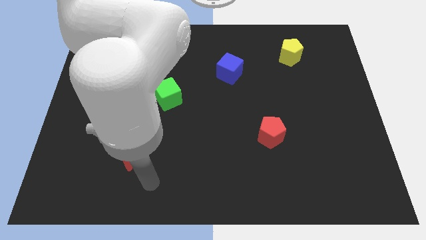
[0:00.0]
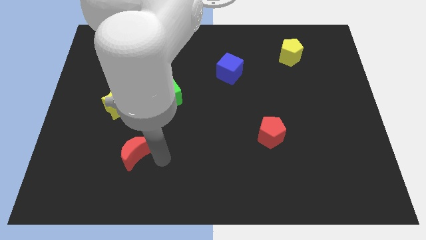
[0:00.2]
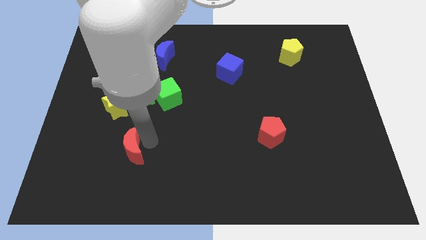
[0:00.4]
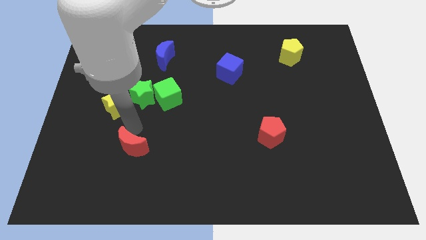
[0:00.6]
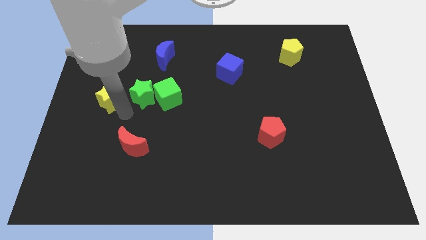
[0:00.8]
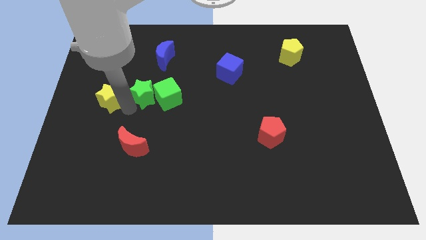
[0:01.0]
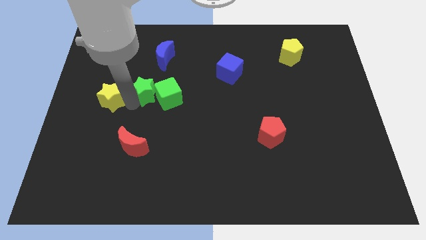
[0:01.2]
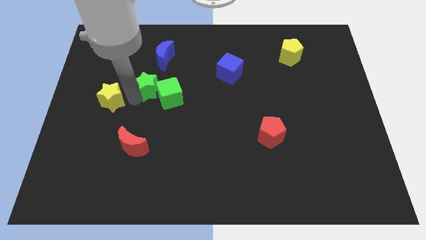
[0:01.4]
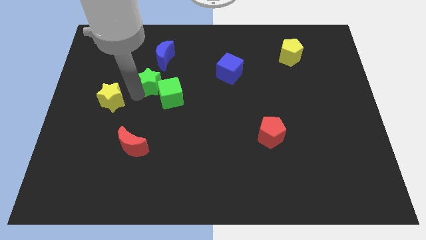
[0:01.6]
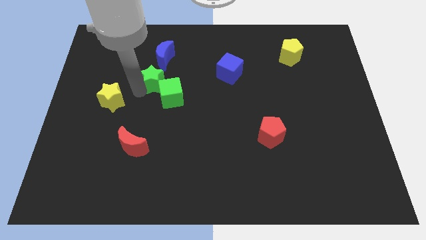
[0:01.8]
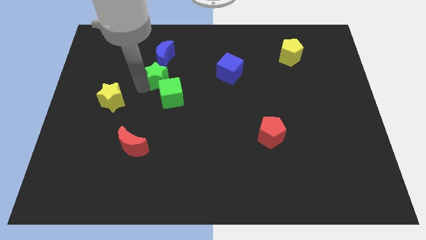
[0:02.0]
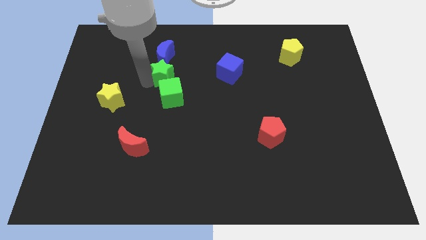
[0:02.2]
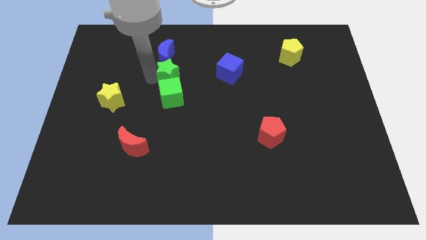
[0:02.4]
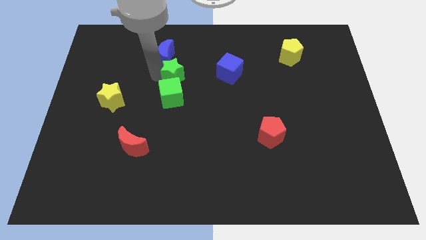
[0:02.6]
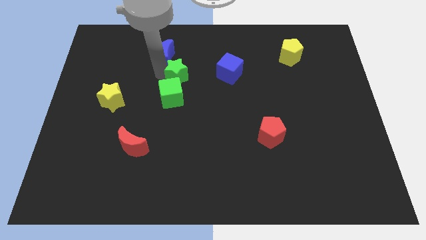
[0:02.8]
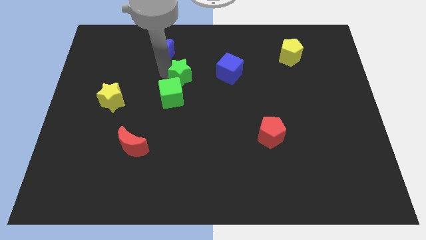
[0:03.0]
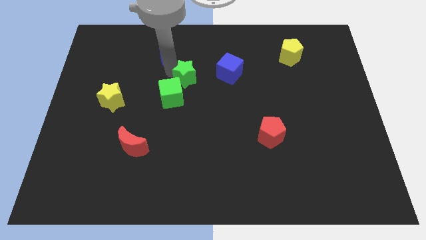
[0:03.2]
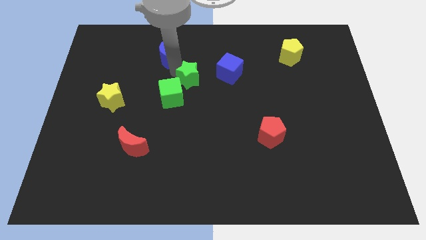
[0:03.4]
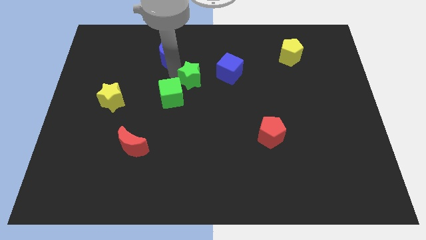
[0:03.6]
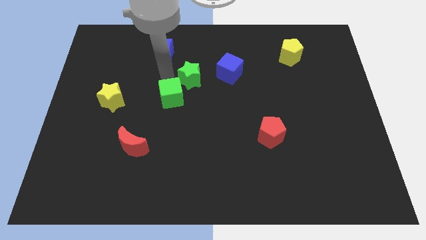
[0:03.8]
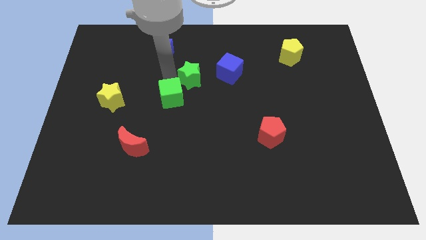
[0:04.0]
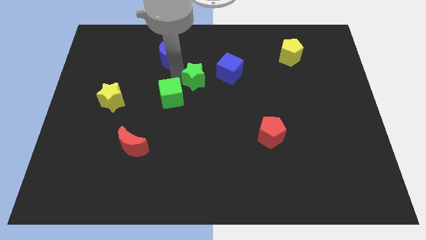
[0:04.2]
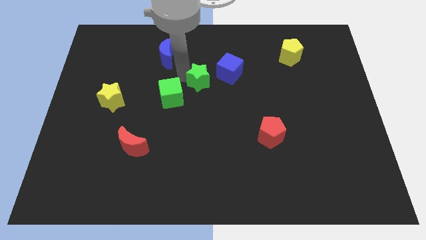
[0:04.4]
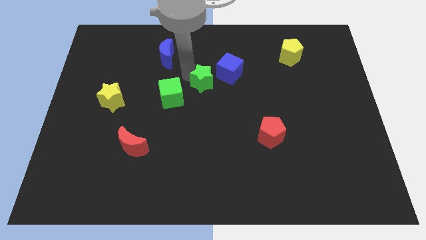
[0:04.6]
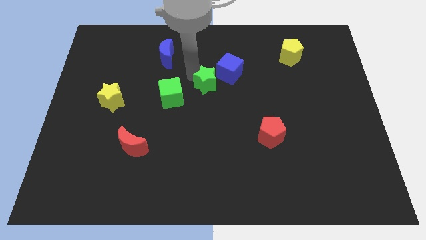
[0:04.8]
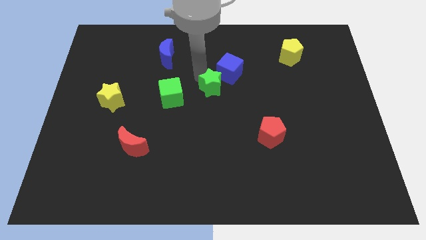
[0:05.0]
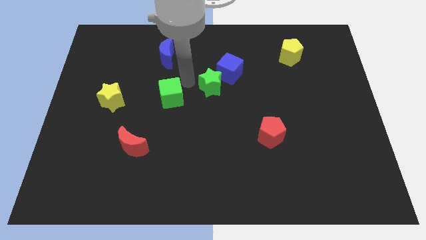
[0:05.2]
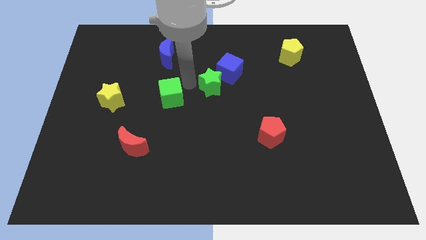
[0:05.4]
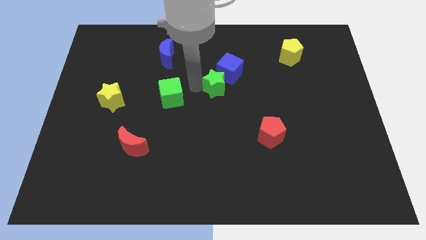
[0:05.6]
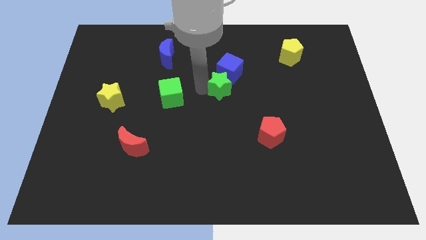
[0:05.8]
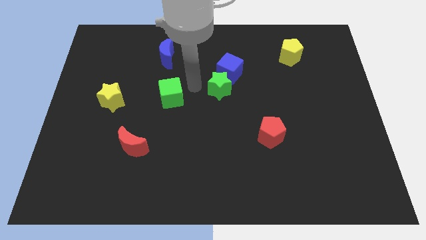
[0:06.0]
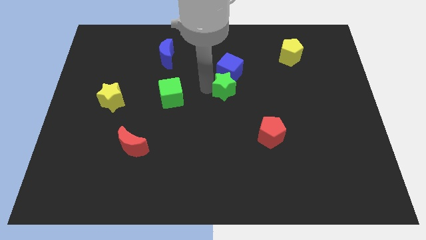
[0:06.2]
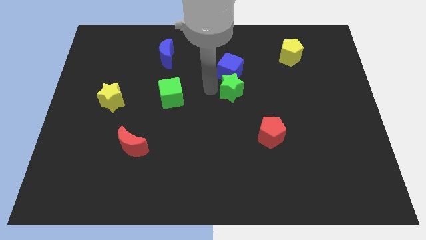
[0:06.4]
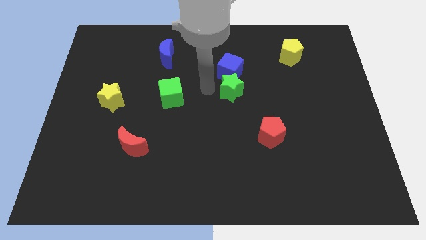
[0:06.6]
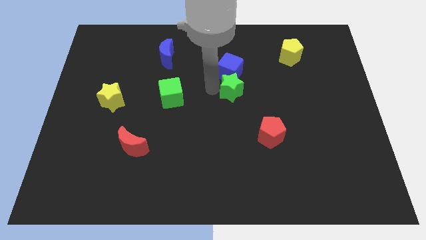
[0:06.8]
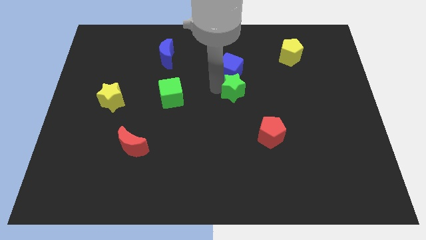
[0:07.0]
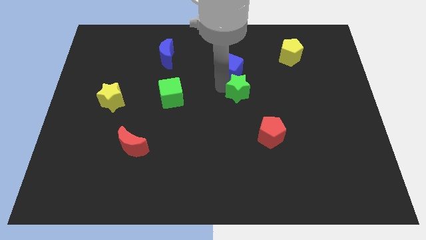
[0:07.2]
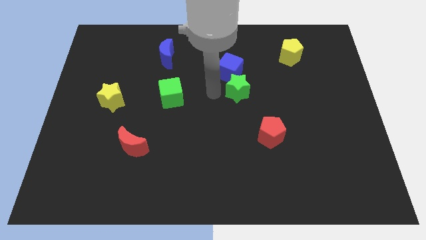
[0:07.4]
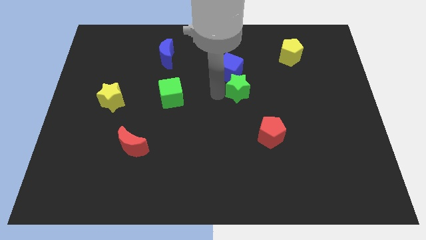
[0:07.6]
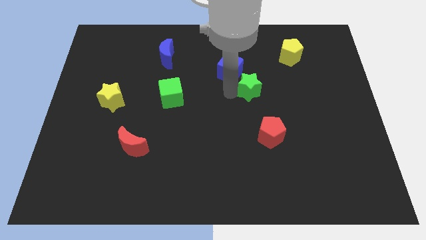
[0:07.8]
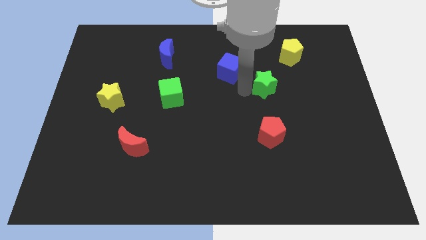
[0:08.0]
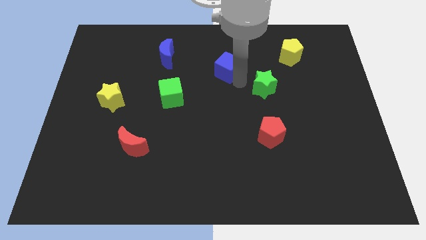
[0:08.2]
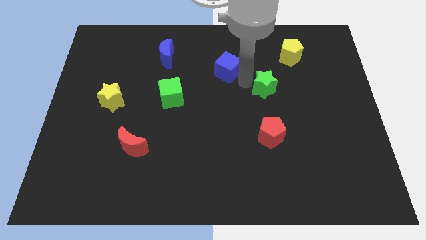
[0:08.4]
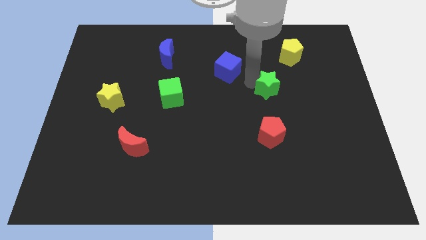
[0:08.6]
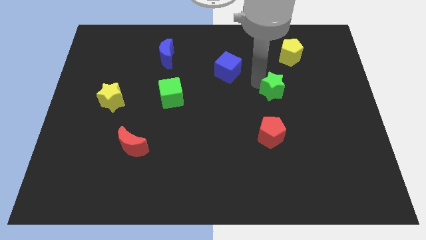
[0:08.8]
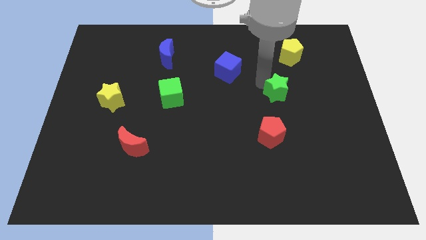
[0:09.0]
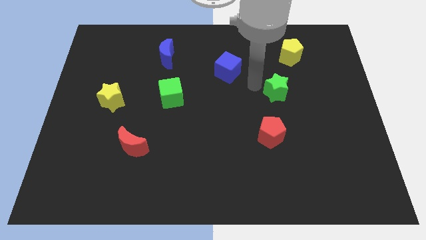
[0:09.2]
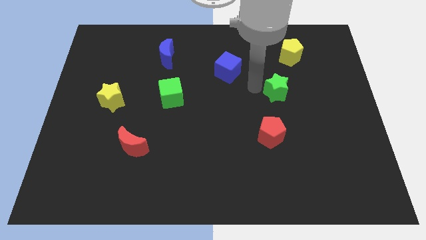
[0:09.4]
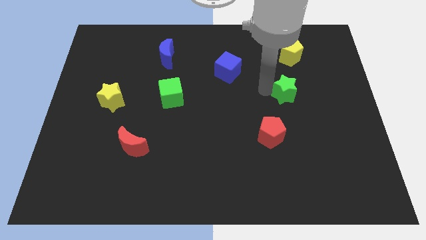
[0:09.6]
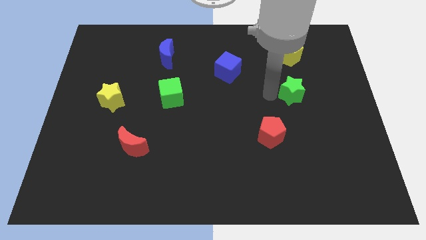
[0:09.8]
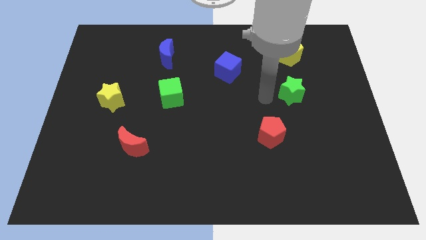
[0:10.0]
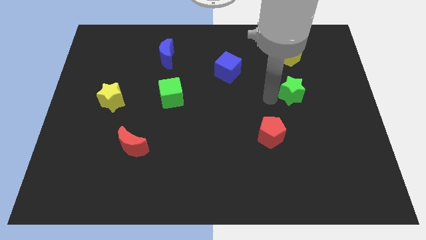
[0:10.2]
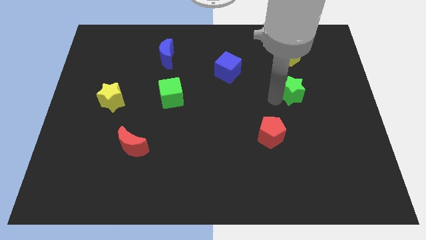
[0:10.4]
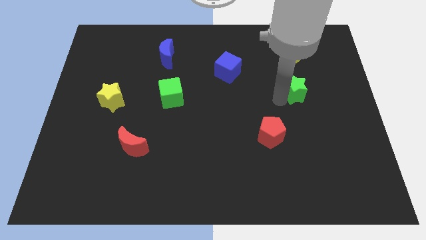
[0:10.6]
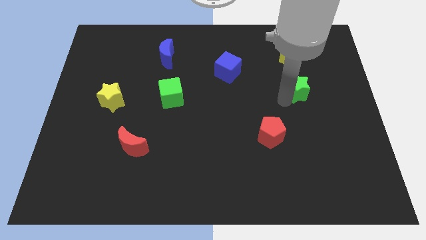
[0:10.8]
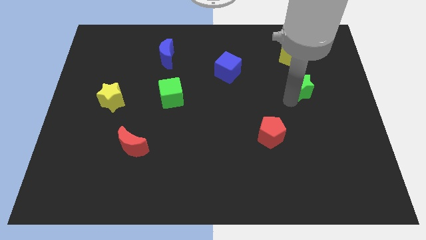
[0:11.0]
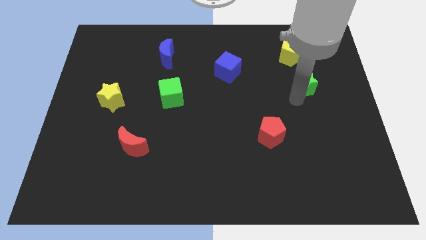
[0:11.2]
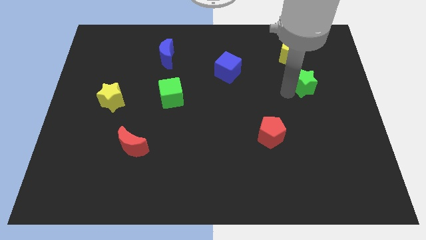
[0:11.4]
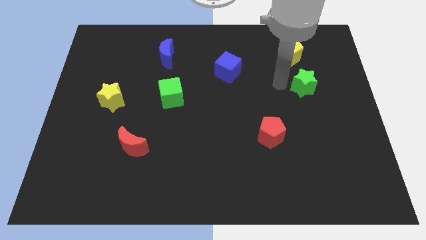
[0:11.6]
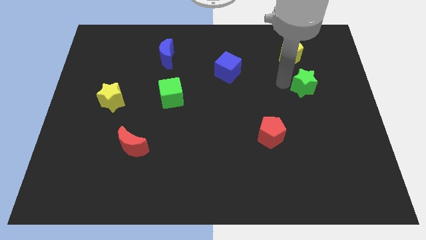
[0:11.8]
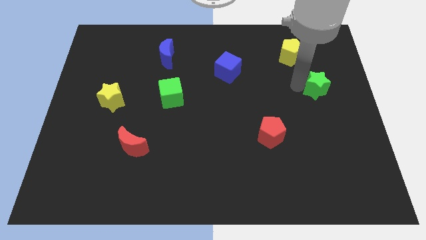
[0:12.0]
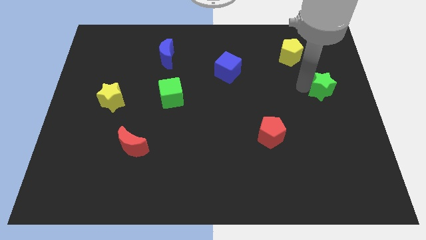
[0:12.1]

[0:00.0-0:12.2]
move the green star to the right side
